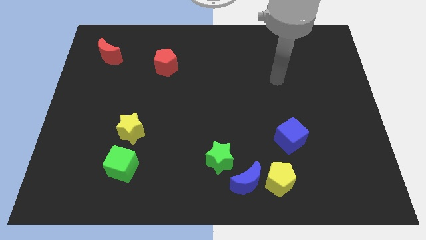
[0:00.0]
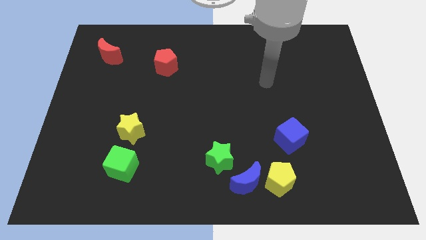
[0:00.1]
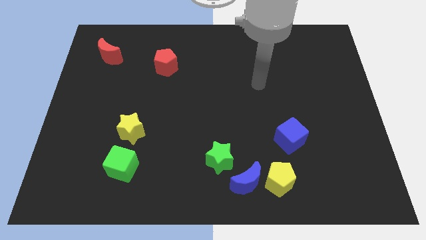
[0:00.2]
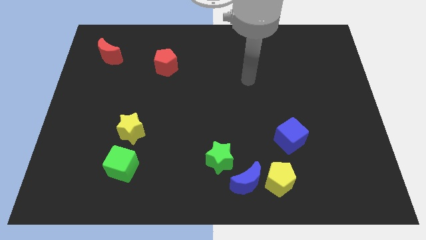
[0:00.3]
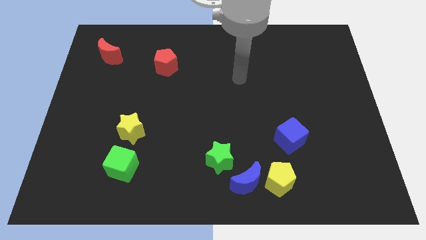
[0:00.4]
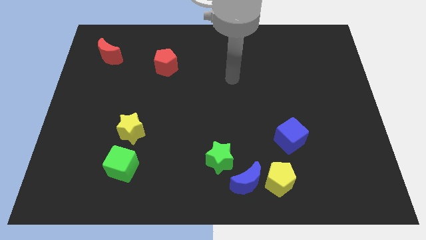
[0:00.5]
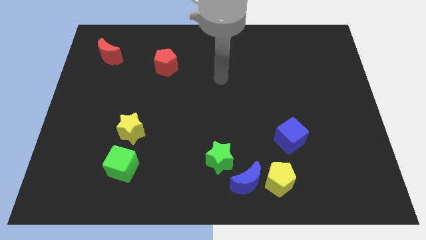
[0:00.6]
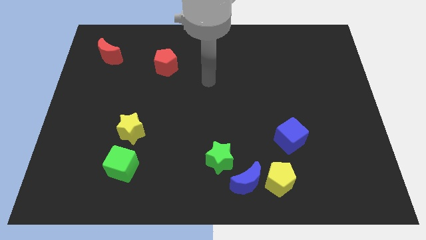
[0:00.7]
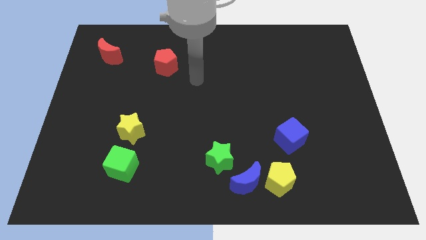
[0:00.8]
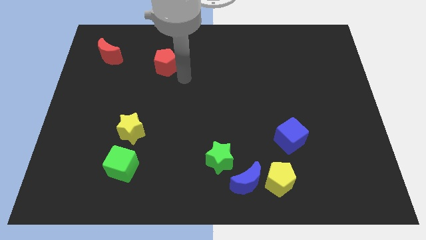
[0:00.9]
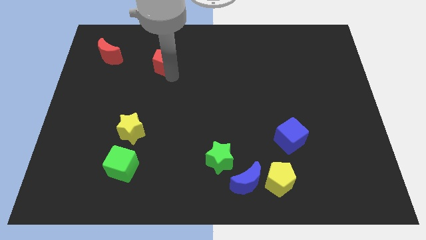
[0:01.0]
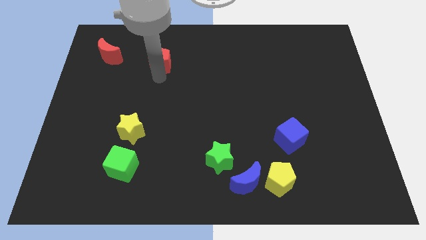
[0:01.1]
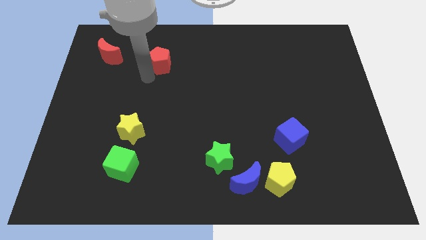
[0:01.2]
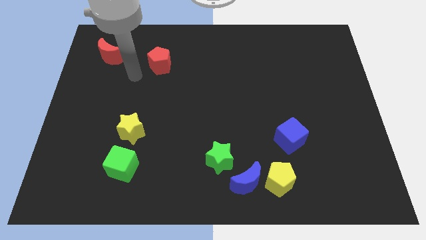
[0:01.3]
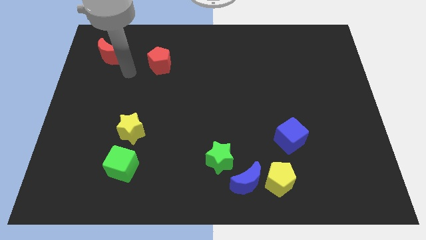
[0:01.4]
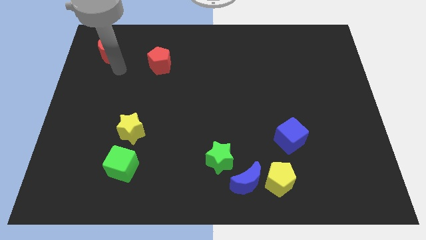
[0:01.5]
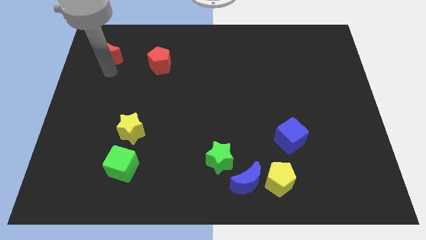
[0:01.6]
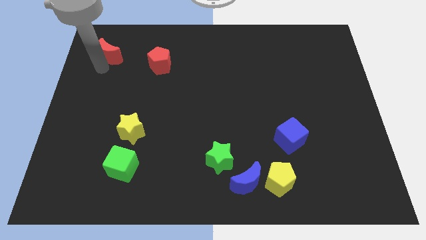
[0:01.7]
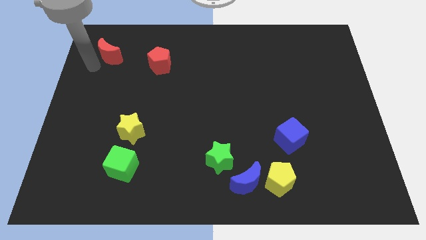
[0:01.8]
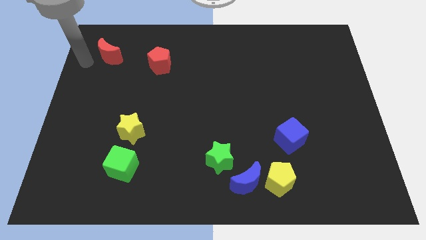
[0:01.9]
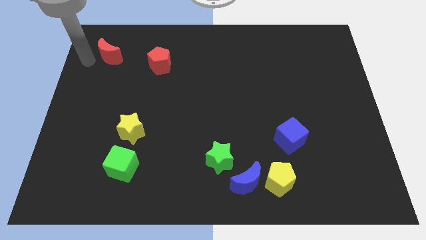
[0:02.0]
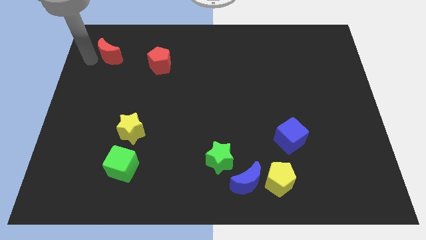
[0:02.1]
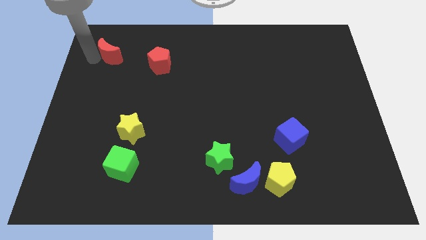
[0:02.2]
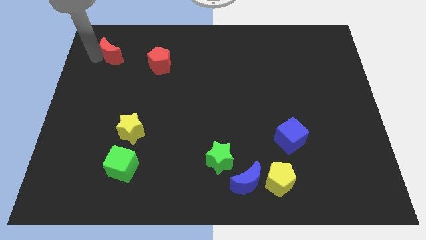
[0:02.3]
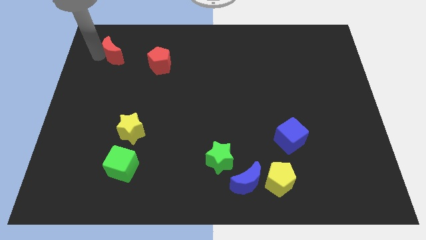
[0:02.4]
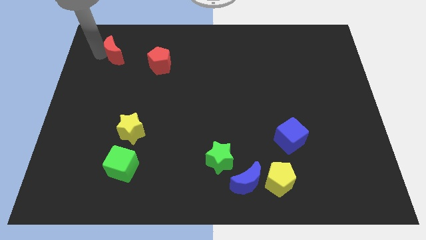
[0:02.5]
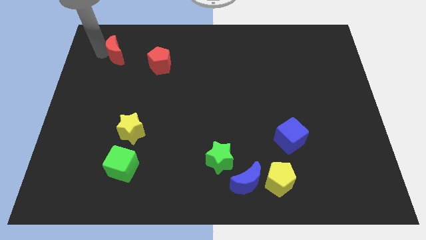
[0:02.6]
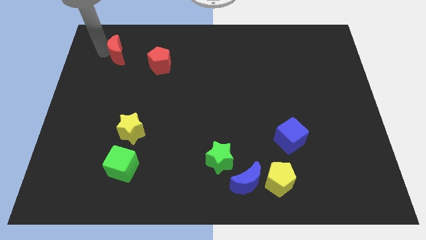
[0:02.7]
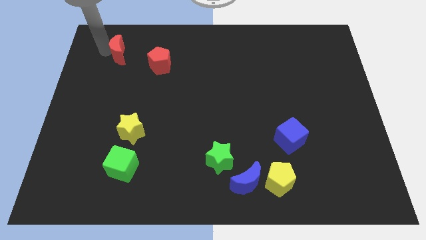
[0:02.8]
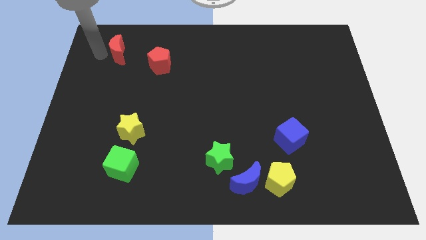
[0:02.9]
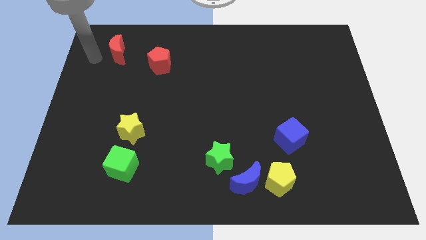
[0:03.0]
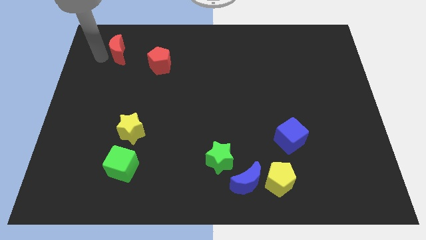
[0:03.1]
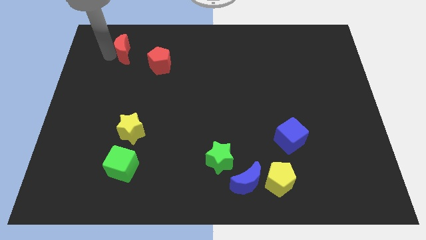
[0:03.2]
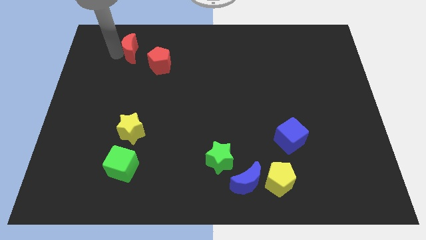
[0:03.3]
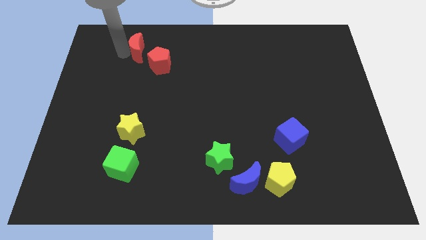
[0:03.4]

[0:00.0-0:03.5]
move the red moon right slightly

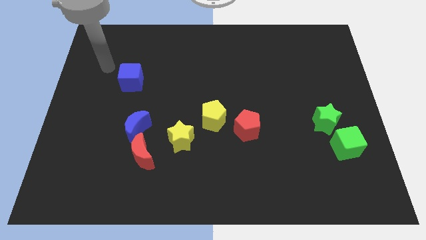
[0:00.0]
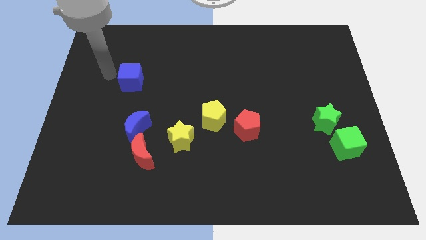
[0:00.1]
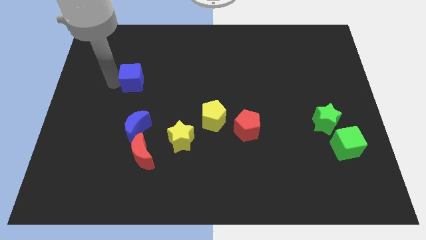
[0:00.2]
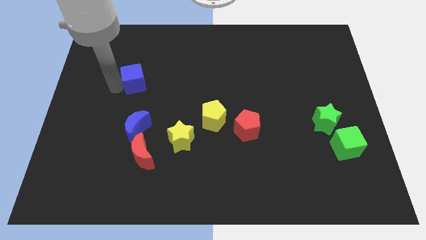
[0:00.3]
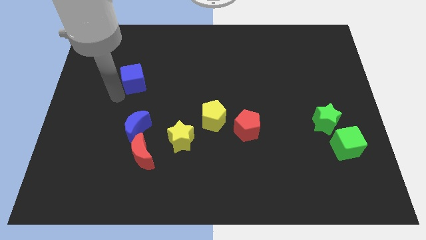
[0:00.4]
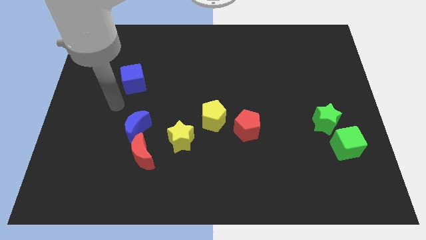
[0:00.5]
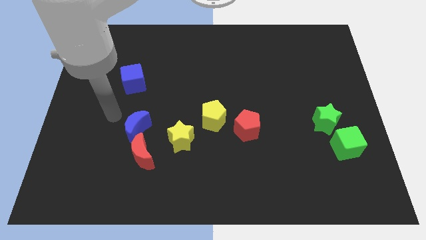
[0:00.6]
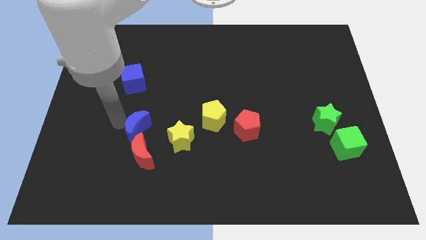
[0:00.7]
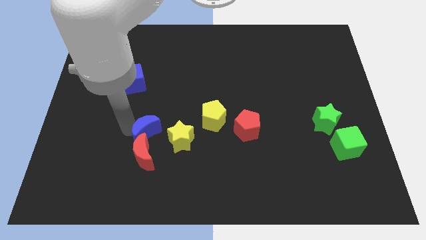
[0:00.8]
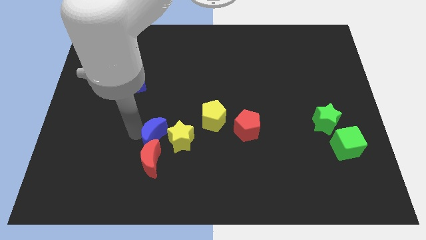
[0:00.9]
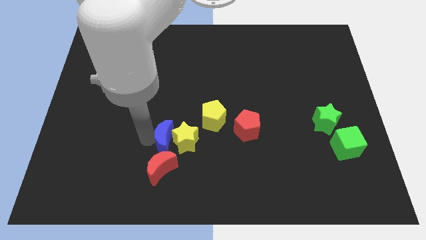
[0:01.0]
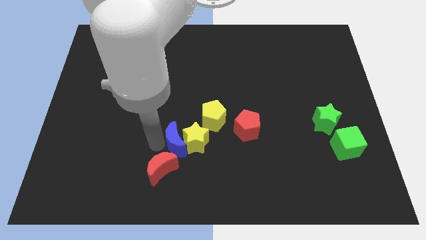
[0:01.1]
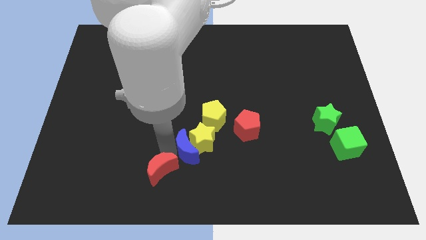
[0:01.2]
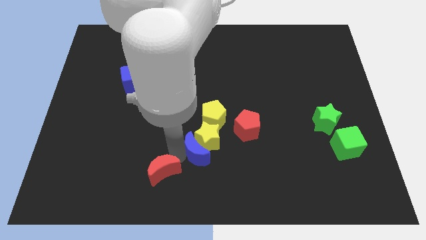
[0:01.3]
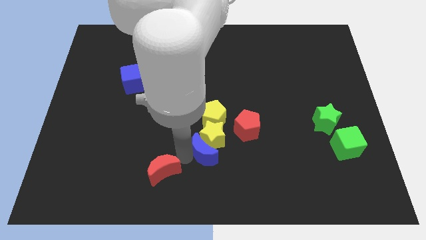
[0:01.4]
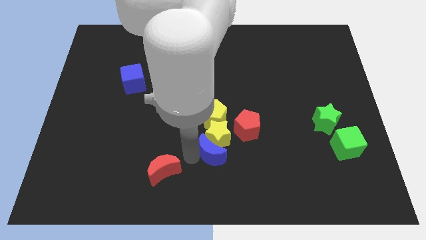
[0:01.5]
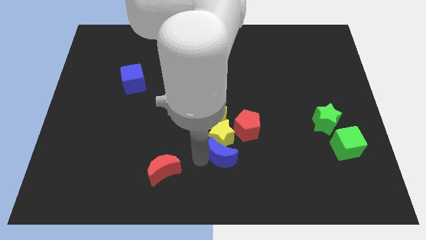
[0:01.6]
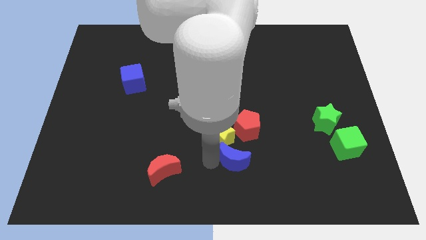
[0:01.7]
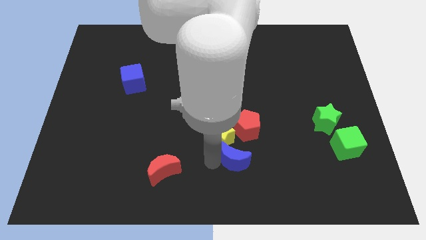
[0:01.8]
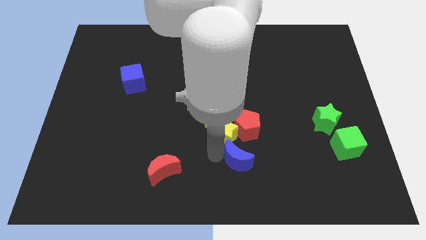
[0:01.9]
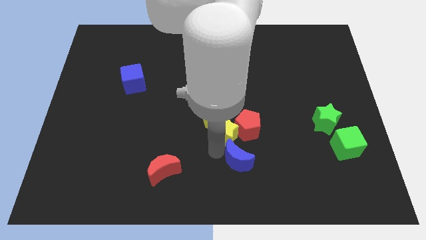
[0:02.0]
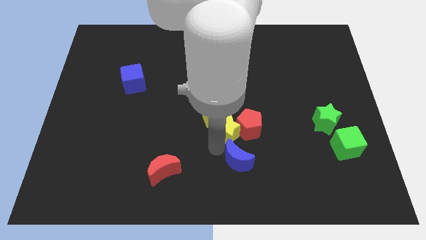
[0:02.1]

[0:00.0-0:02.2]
move the yellow star upwards and then right a little

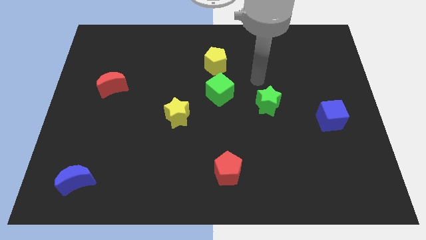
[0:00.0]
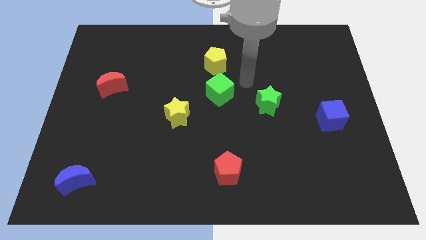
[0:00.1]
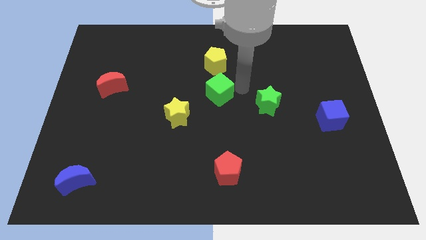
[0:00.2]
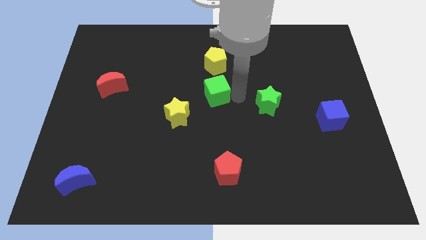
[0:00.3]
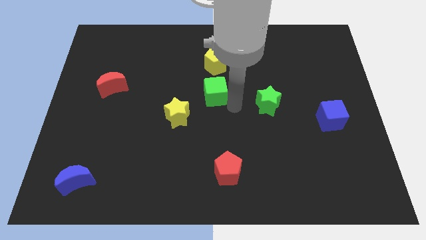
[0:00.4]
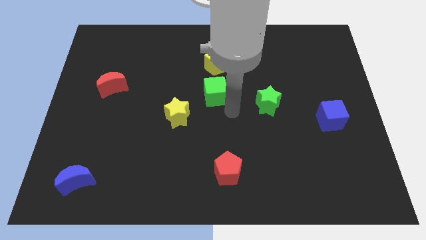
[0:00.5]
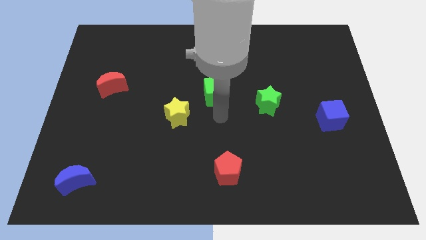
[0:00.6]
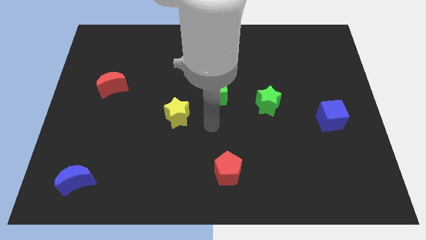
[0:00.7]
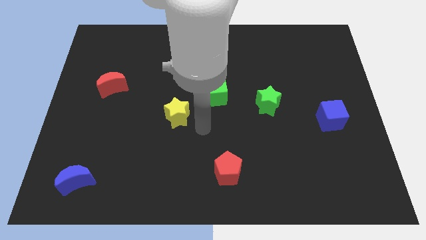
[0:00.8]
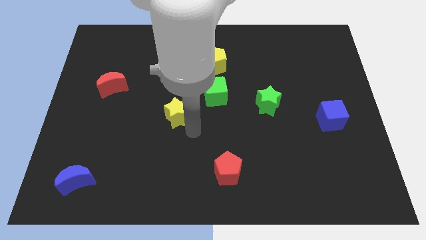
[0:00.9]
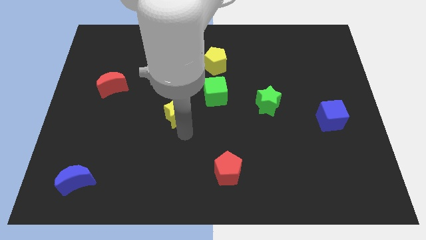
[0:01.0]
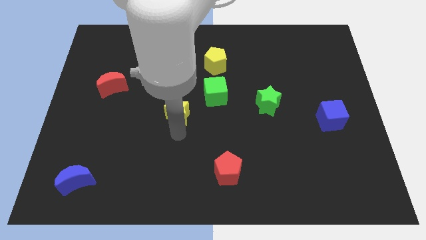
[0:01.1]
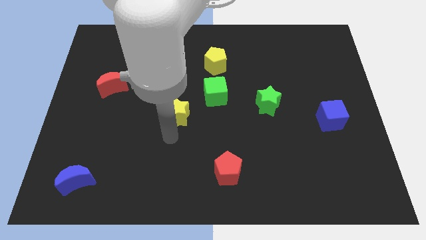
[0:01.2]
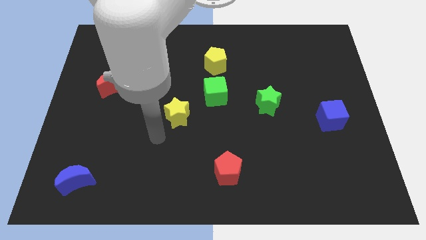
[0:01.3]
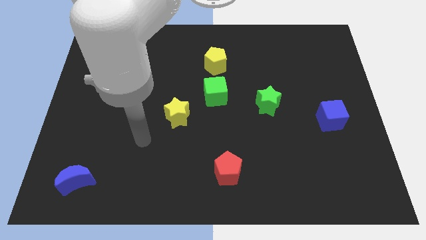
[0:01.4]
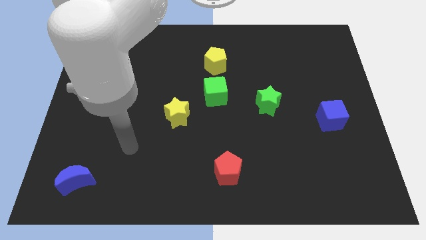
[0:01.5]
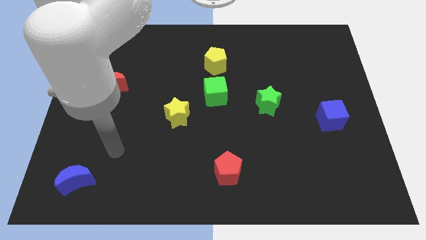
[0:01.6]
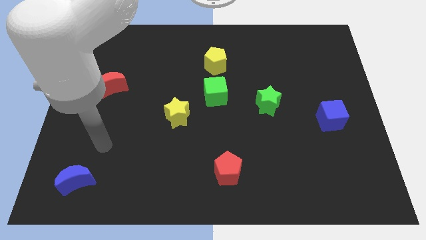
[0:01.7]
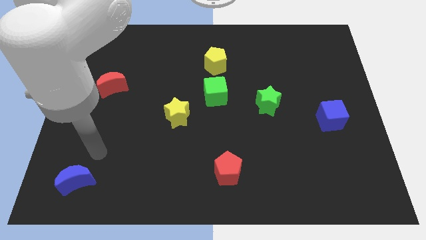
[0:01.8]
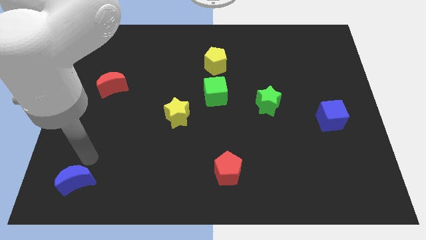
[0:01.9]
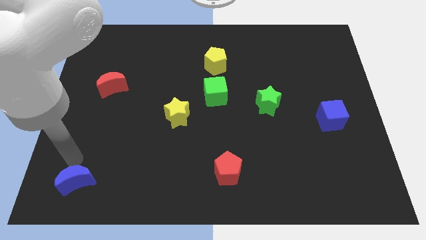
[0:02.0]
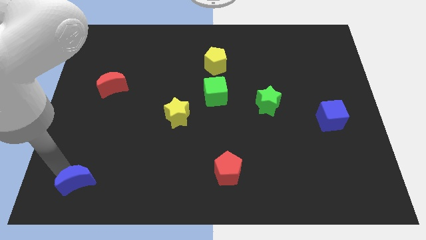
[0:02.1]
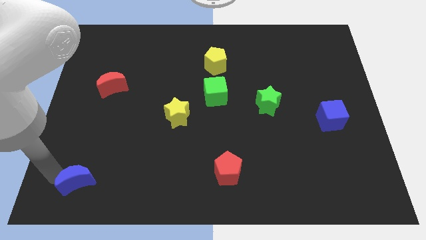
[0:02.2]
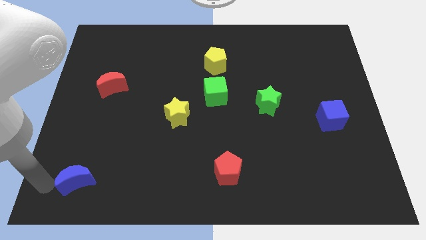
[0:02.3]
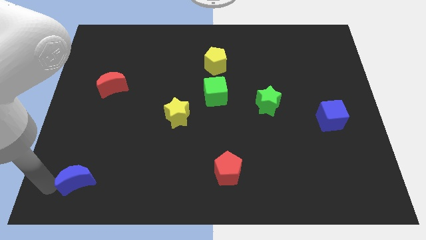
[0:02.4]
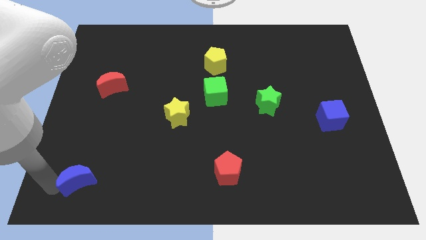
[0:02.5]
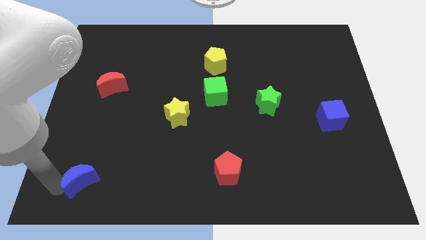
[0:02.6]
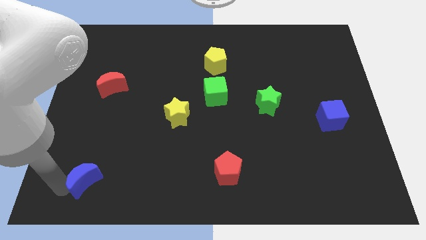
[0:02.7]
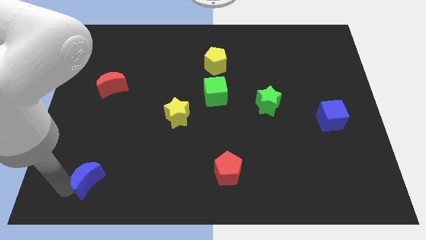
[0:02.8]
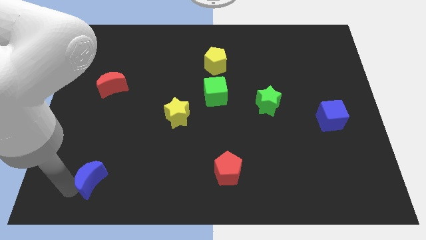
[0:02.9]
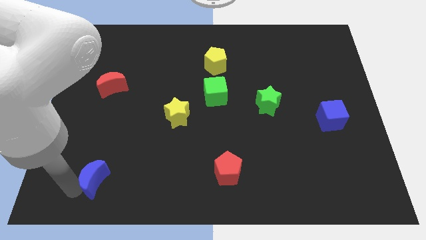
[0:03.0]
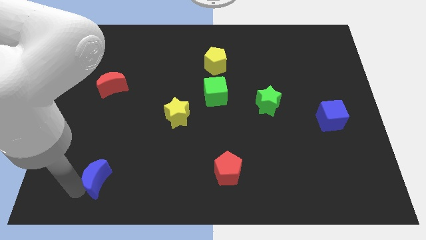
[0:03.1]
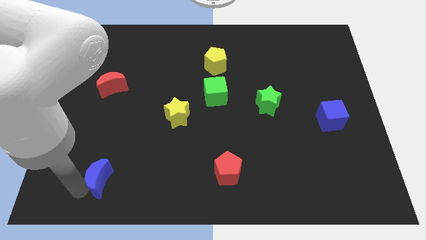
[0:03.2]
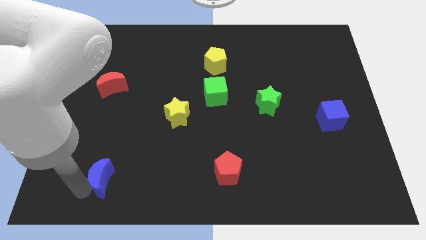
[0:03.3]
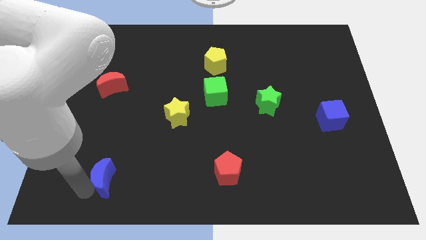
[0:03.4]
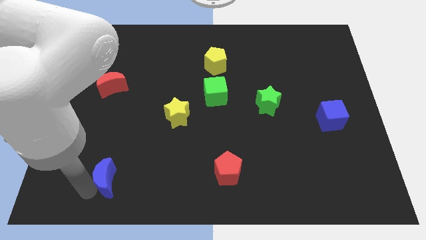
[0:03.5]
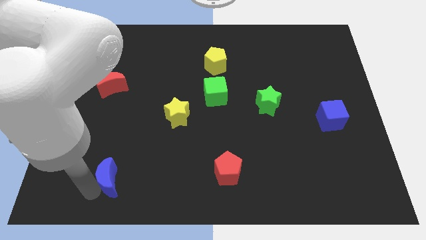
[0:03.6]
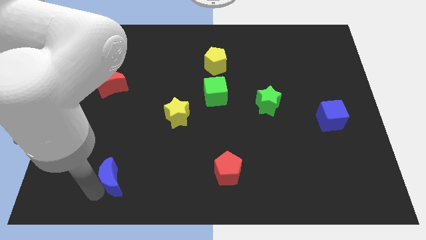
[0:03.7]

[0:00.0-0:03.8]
move the blue moon right a bit
